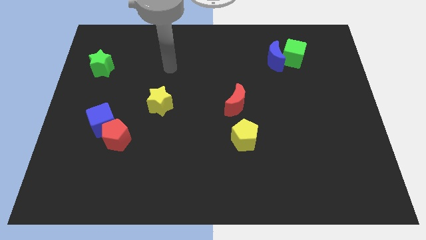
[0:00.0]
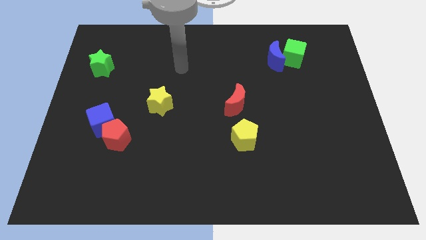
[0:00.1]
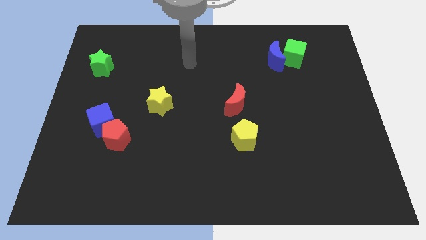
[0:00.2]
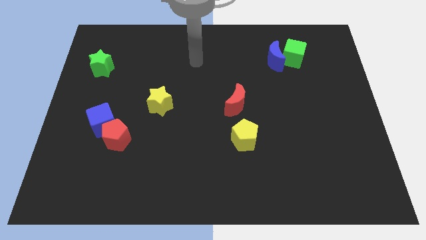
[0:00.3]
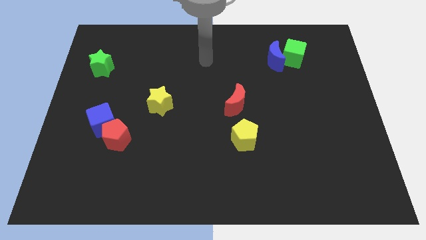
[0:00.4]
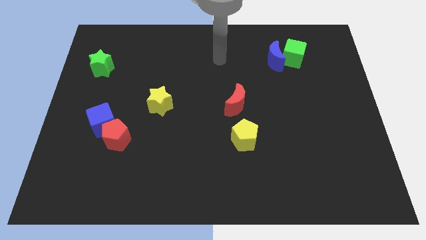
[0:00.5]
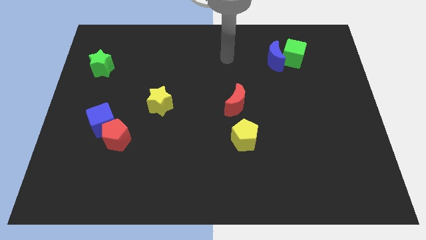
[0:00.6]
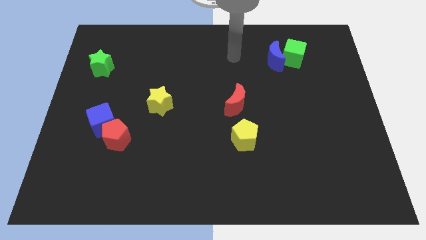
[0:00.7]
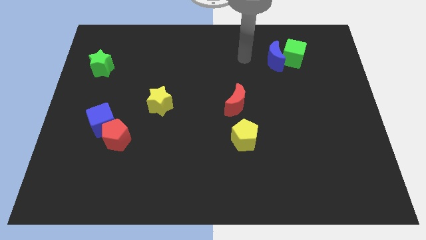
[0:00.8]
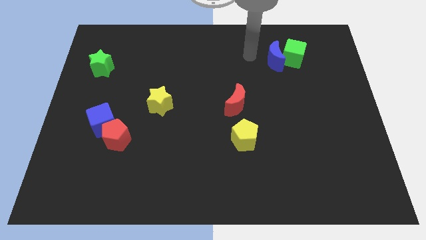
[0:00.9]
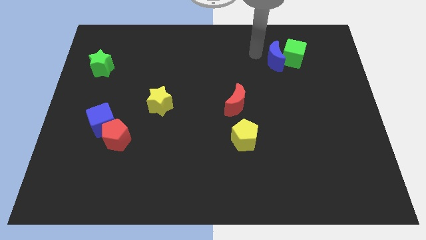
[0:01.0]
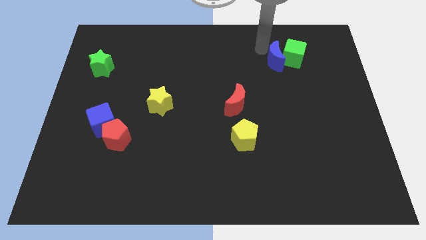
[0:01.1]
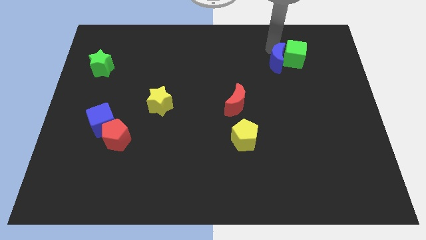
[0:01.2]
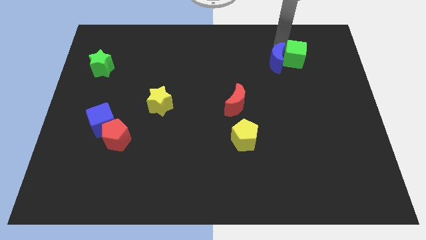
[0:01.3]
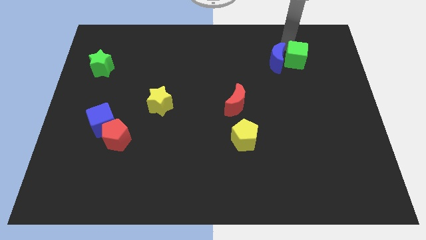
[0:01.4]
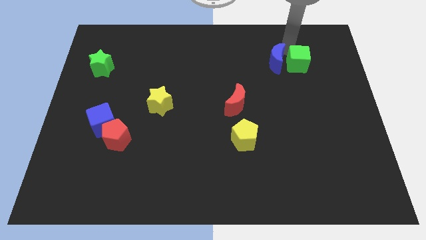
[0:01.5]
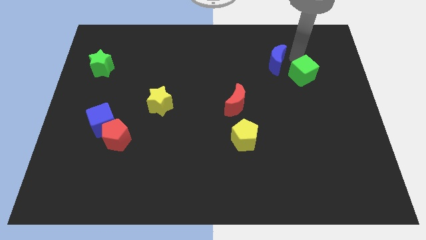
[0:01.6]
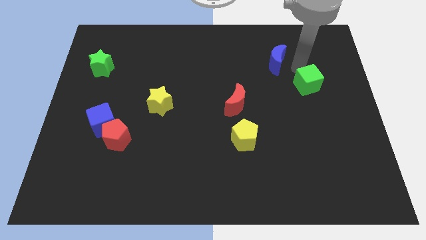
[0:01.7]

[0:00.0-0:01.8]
separate the blue moon from the green cube

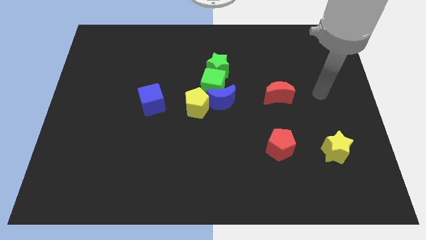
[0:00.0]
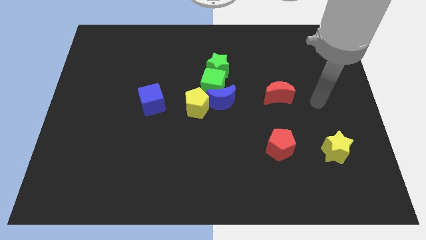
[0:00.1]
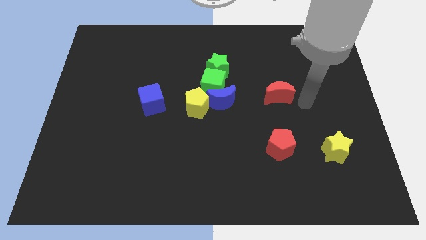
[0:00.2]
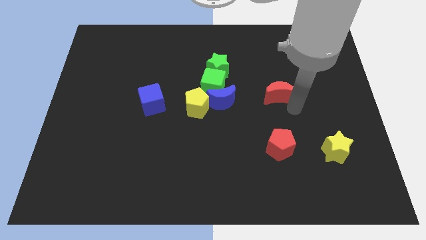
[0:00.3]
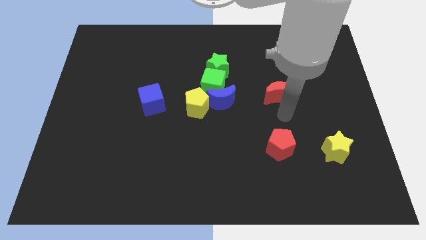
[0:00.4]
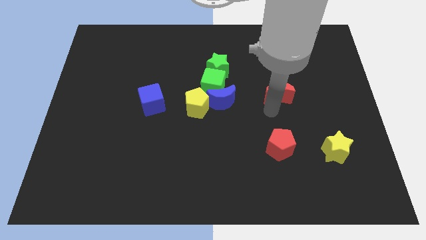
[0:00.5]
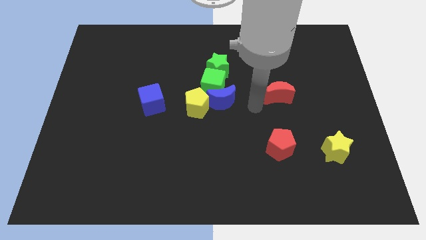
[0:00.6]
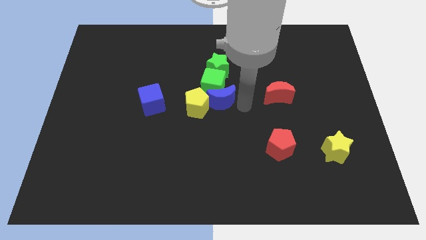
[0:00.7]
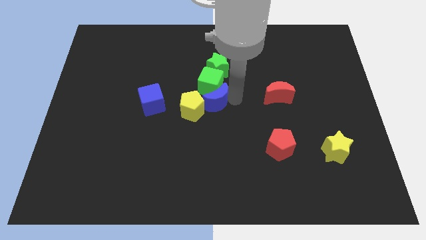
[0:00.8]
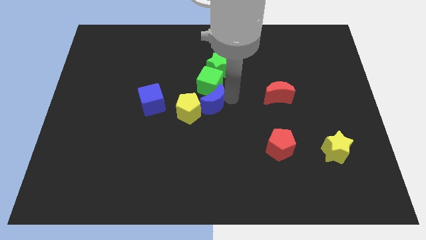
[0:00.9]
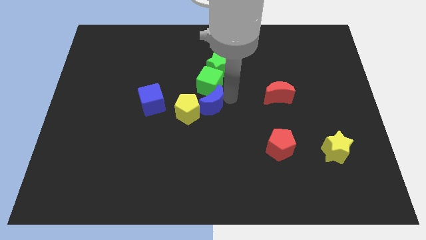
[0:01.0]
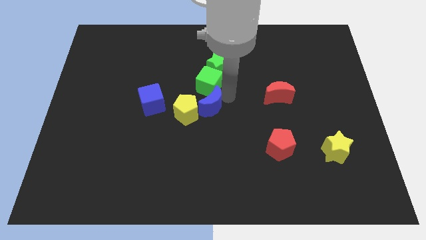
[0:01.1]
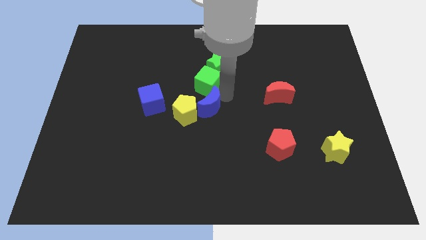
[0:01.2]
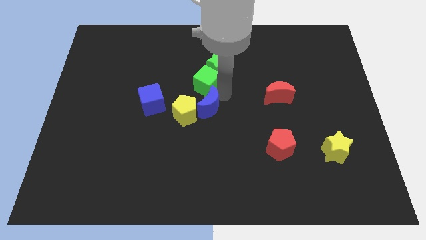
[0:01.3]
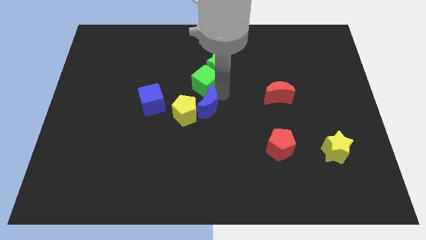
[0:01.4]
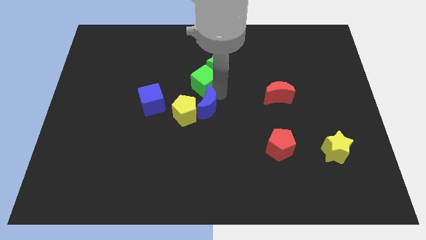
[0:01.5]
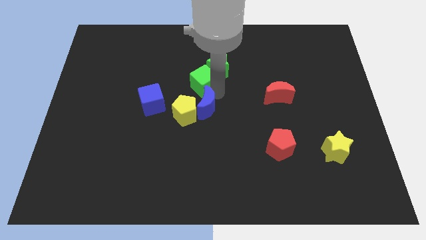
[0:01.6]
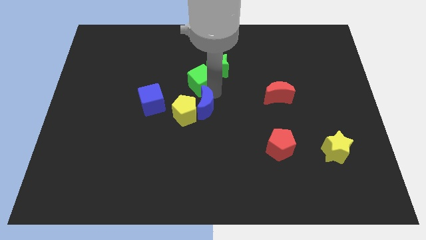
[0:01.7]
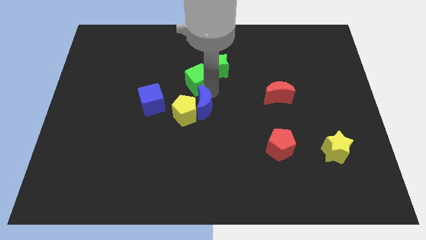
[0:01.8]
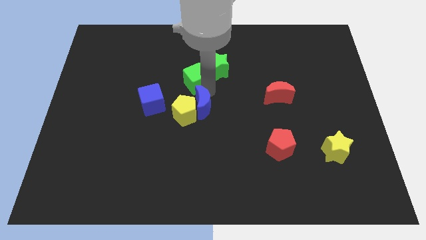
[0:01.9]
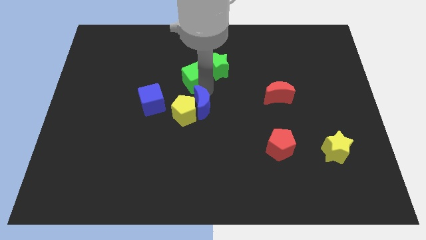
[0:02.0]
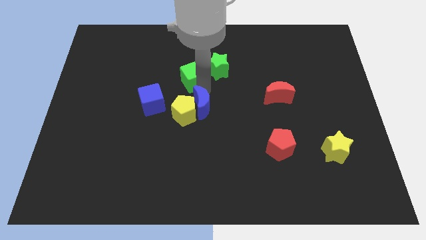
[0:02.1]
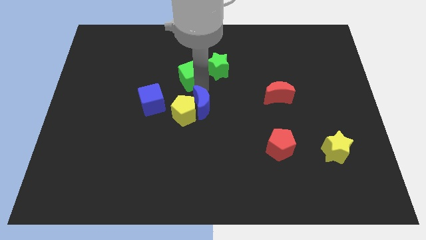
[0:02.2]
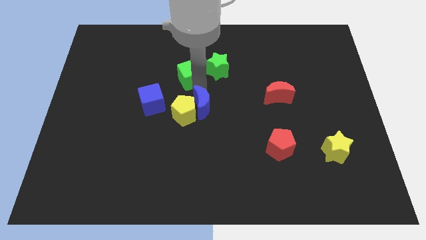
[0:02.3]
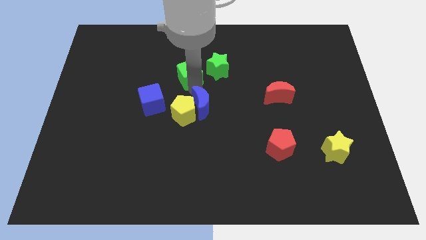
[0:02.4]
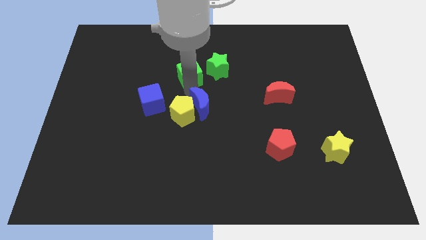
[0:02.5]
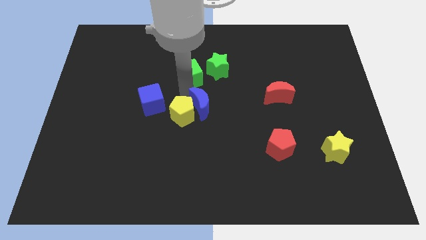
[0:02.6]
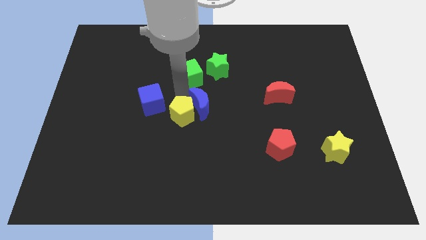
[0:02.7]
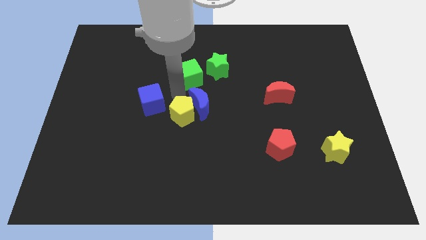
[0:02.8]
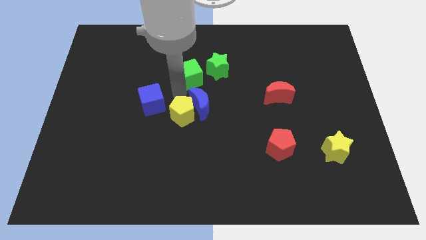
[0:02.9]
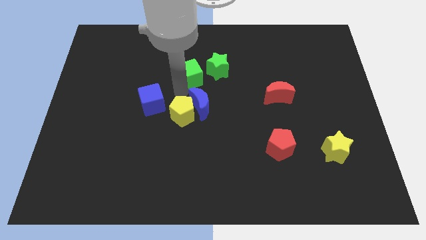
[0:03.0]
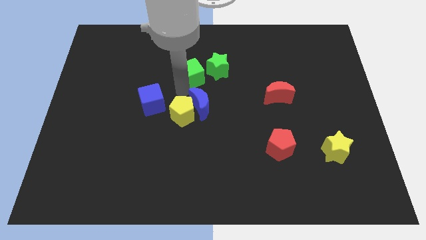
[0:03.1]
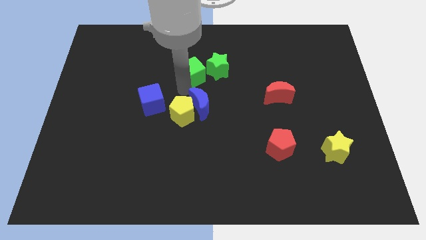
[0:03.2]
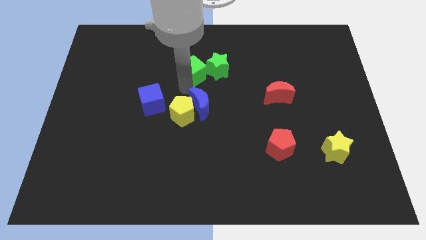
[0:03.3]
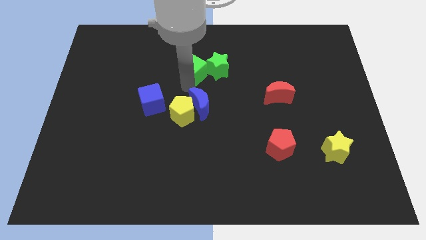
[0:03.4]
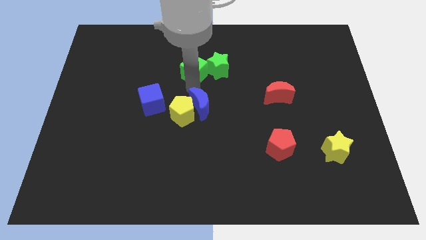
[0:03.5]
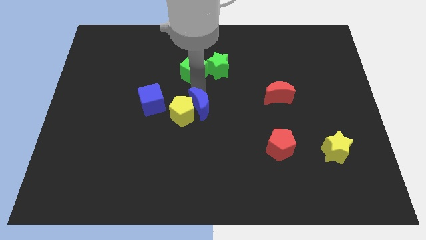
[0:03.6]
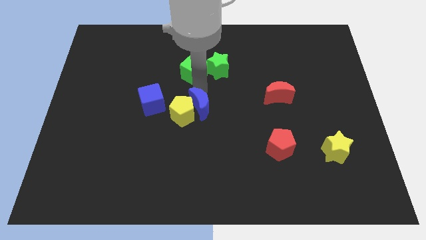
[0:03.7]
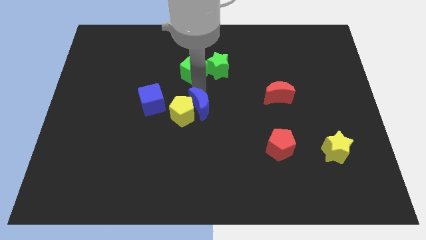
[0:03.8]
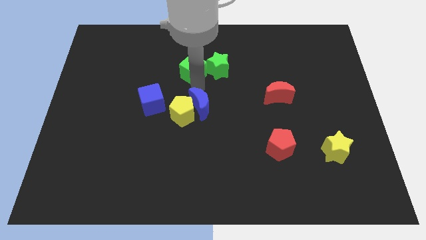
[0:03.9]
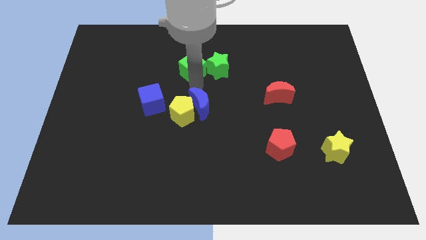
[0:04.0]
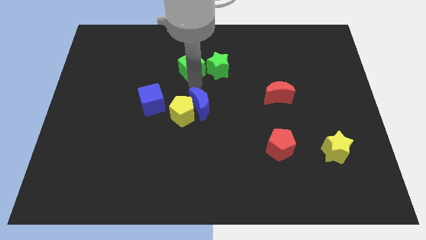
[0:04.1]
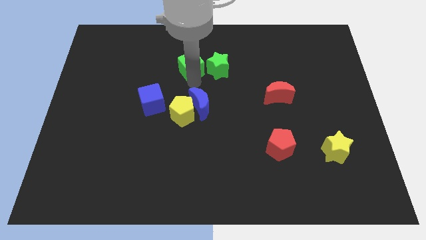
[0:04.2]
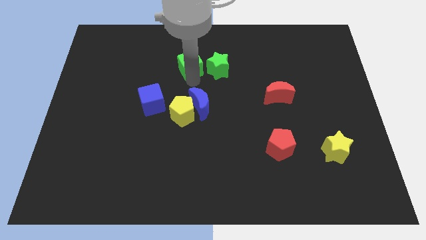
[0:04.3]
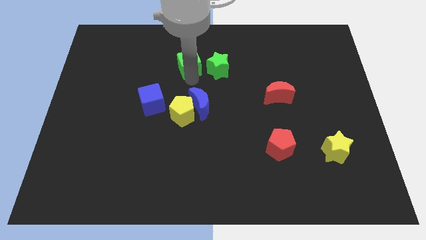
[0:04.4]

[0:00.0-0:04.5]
move the green cube away from the clump

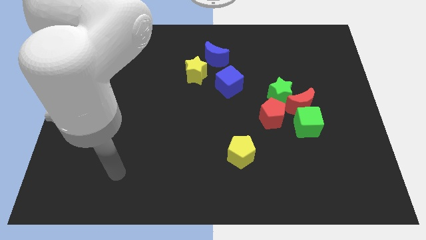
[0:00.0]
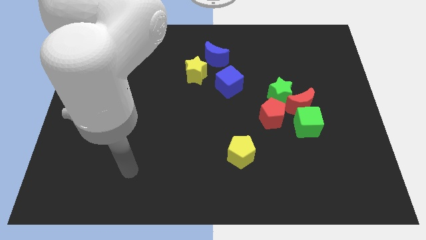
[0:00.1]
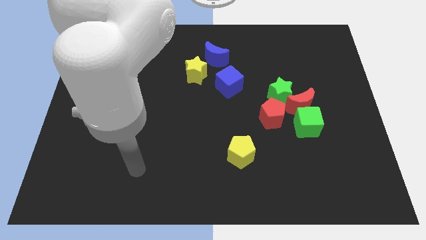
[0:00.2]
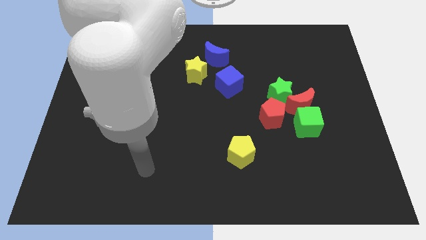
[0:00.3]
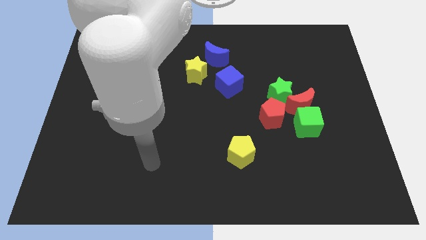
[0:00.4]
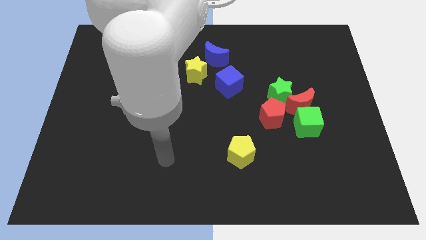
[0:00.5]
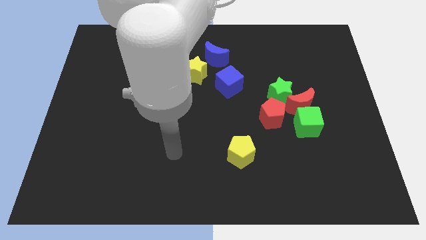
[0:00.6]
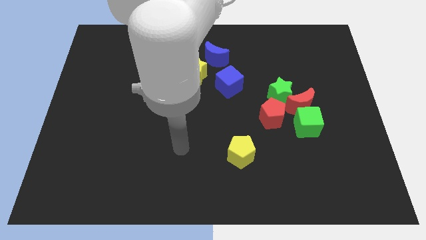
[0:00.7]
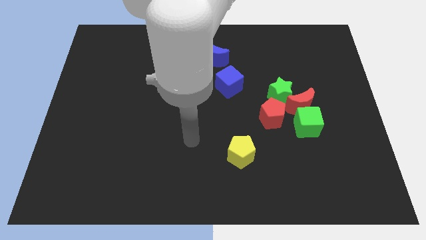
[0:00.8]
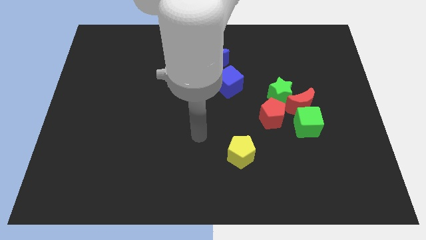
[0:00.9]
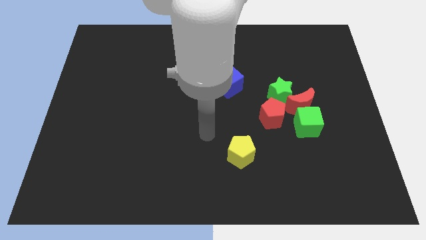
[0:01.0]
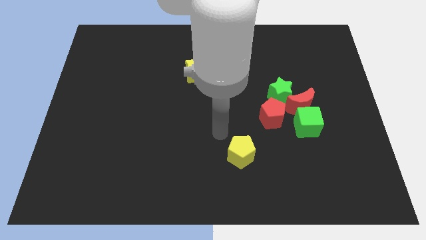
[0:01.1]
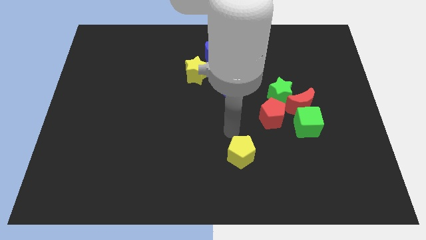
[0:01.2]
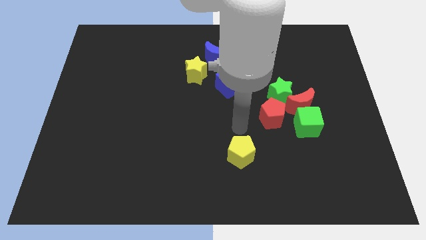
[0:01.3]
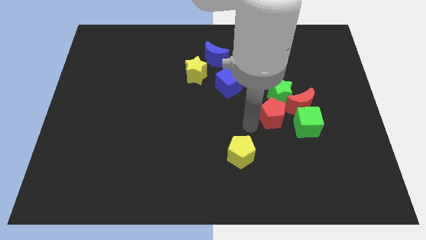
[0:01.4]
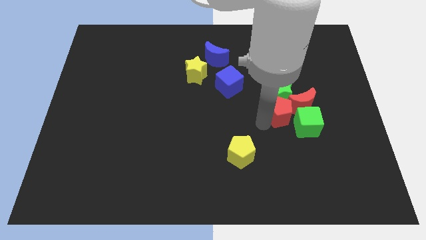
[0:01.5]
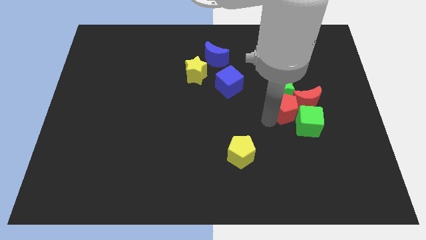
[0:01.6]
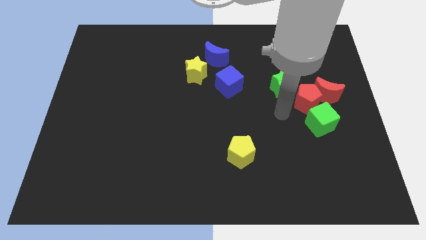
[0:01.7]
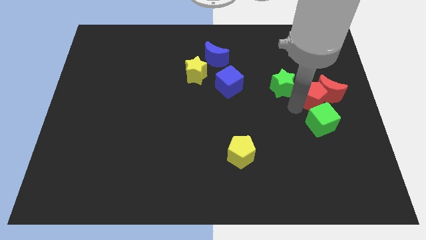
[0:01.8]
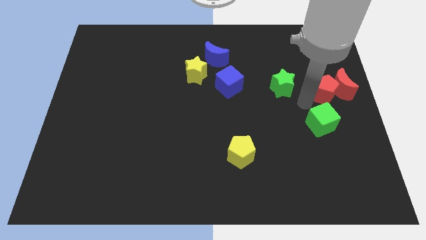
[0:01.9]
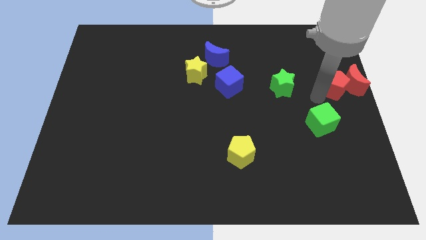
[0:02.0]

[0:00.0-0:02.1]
move the red moon away from the group

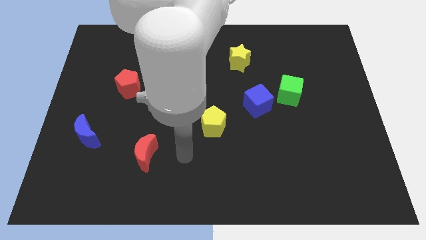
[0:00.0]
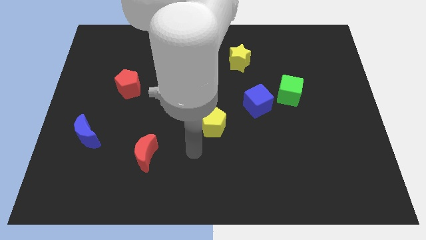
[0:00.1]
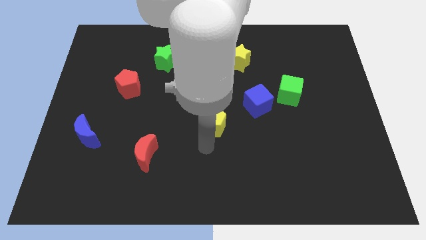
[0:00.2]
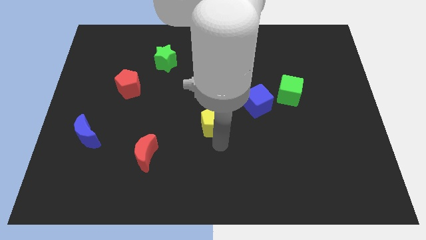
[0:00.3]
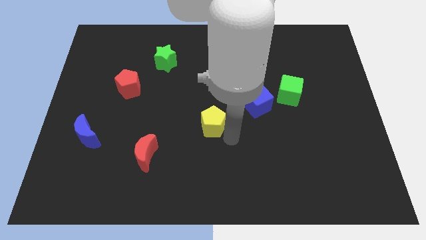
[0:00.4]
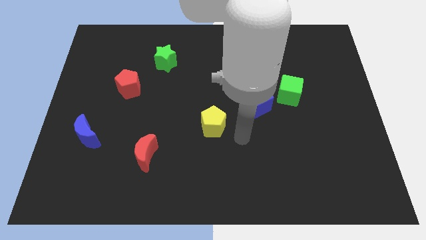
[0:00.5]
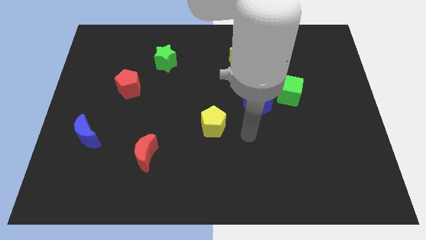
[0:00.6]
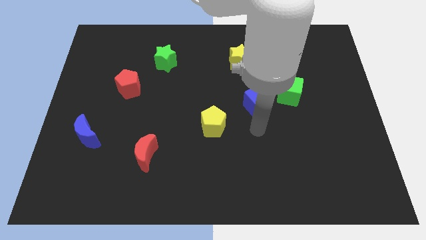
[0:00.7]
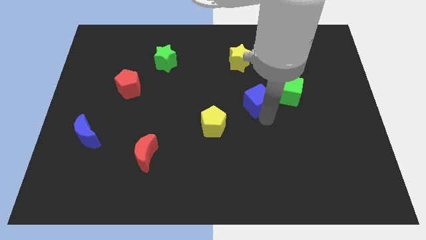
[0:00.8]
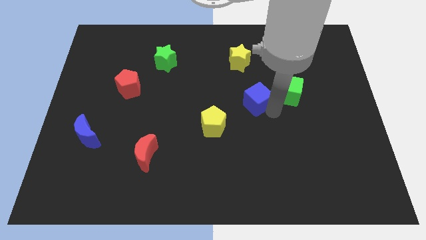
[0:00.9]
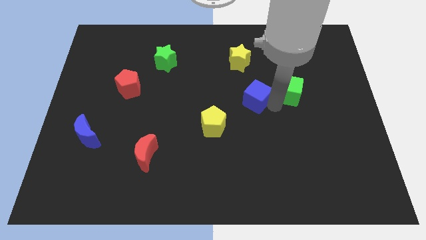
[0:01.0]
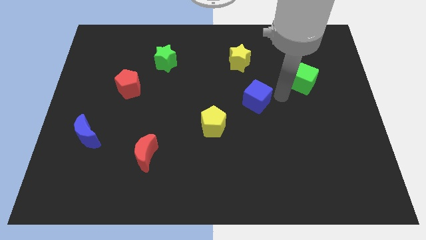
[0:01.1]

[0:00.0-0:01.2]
pull the blue cube apart from the green cube
